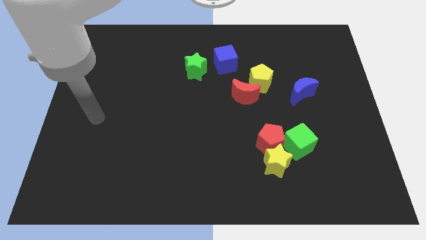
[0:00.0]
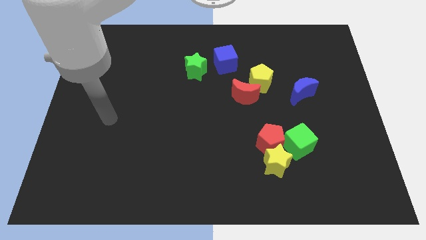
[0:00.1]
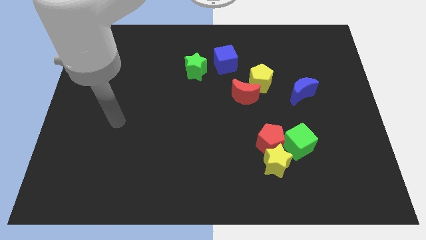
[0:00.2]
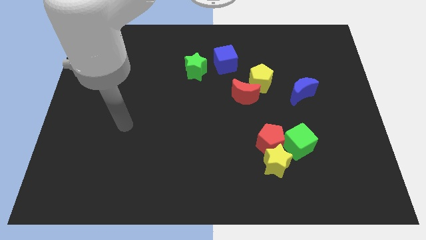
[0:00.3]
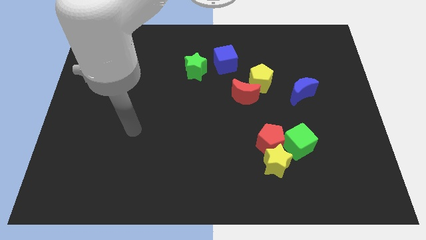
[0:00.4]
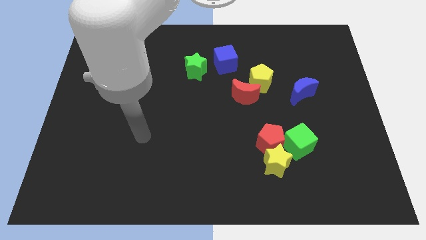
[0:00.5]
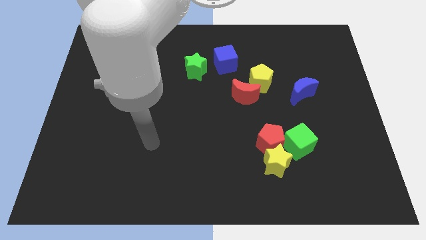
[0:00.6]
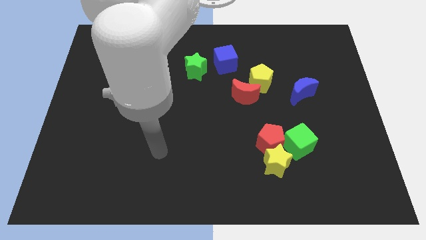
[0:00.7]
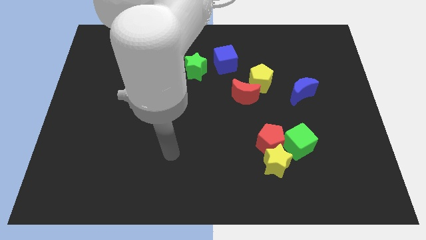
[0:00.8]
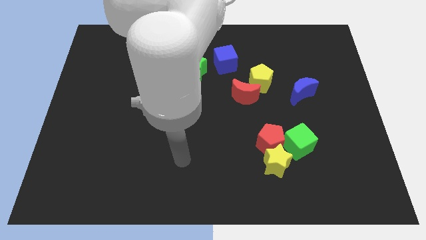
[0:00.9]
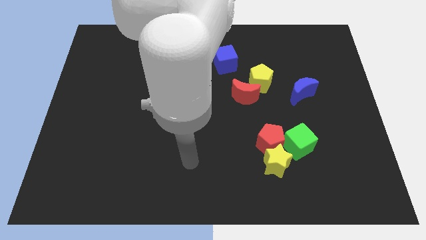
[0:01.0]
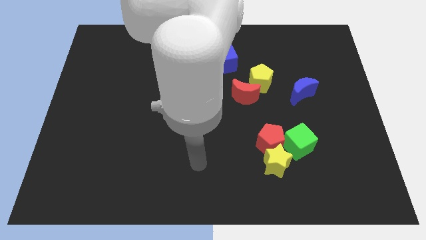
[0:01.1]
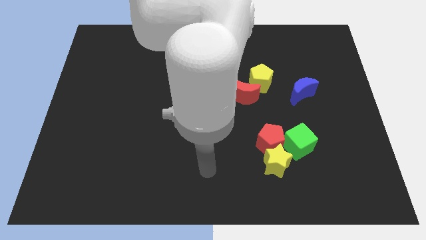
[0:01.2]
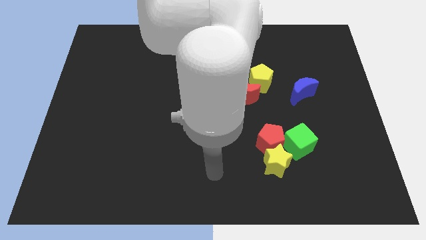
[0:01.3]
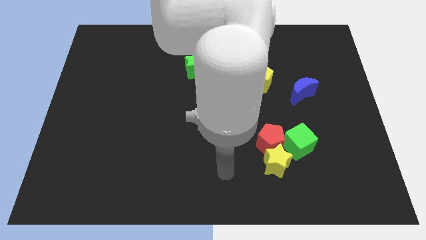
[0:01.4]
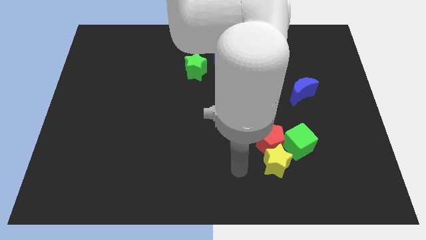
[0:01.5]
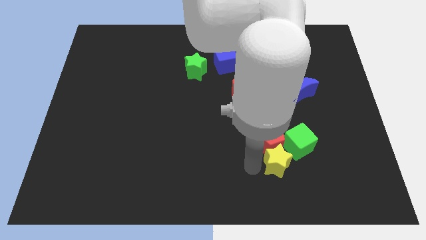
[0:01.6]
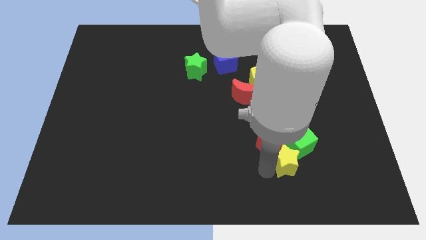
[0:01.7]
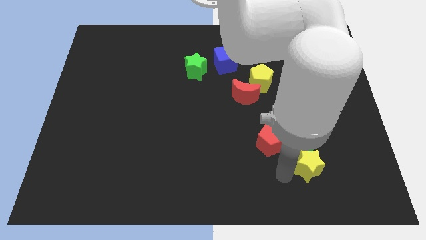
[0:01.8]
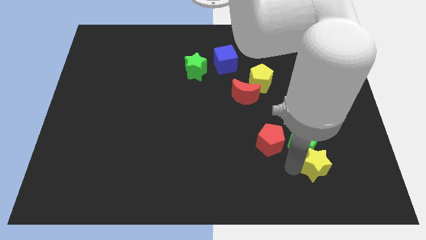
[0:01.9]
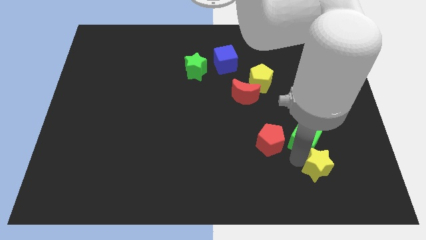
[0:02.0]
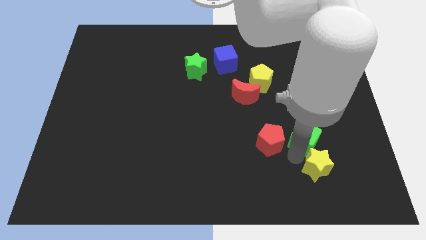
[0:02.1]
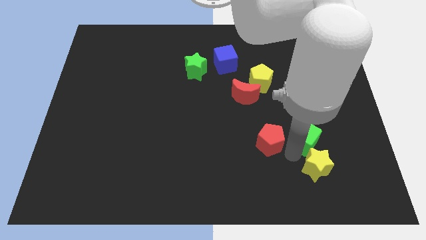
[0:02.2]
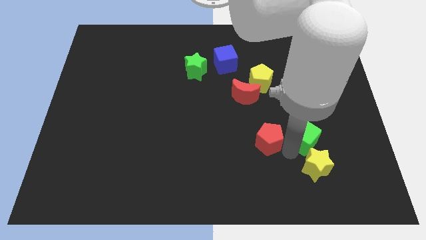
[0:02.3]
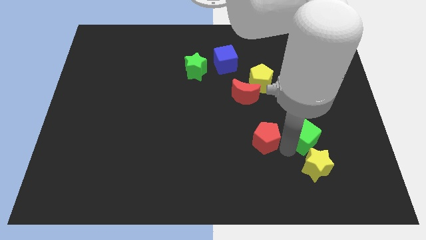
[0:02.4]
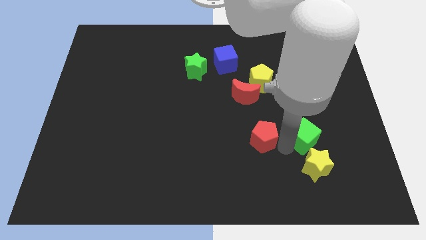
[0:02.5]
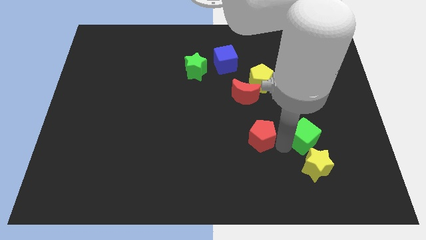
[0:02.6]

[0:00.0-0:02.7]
pull the red pentagon apart from the yellow star and green cube

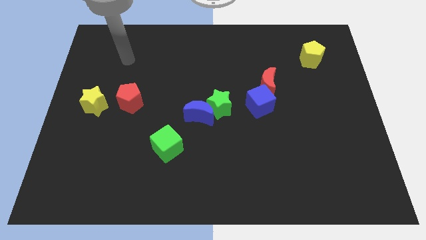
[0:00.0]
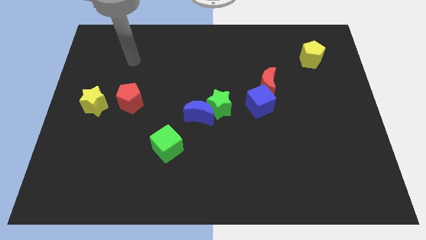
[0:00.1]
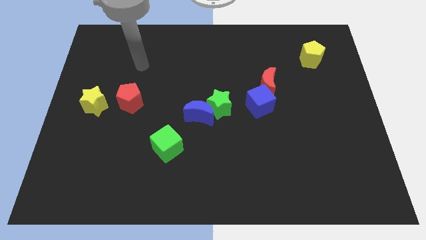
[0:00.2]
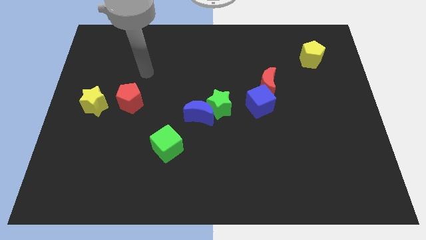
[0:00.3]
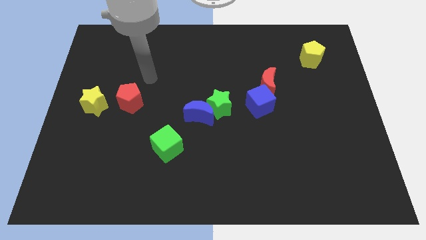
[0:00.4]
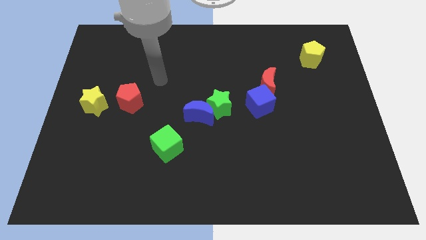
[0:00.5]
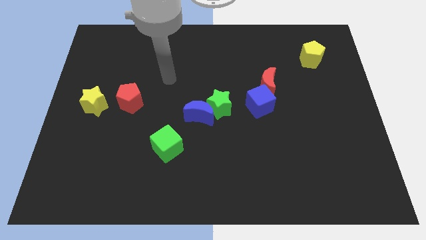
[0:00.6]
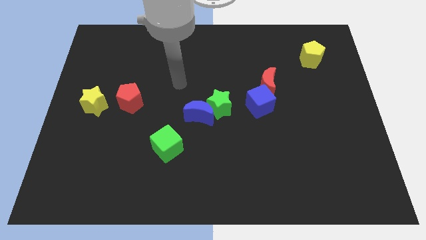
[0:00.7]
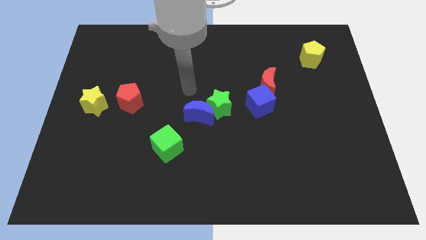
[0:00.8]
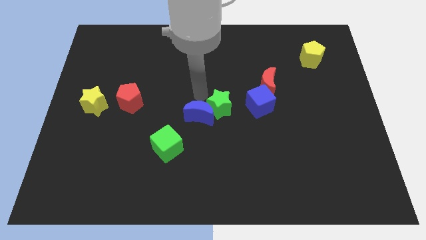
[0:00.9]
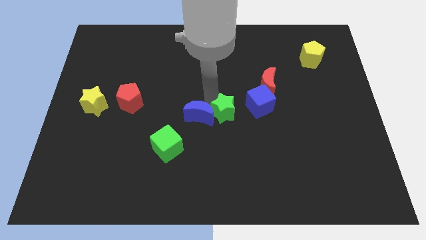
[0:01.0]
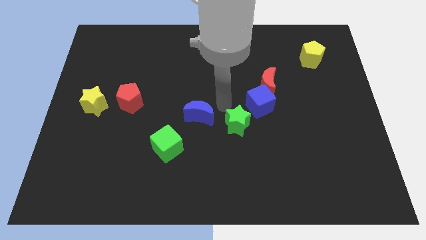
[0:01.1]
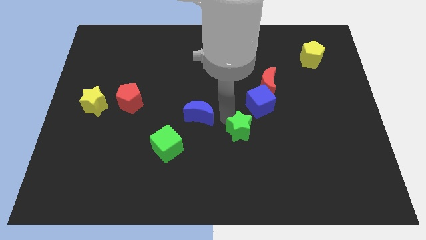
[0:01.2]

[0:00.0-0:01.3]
pull the blue moon apart from the green star

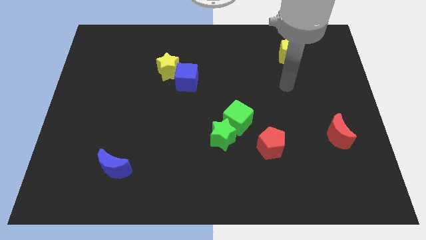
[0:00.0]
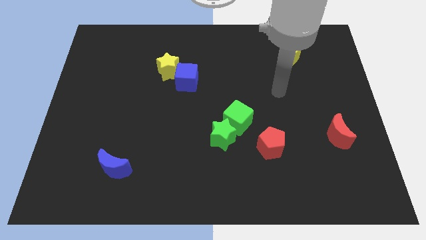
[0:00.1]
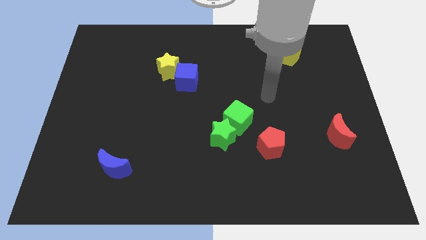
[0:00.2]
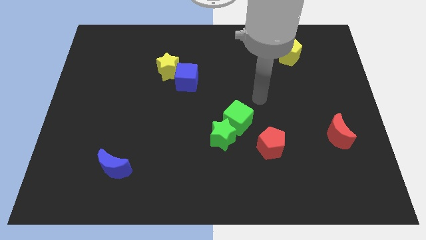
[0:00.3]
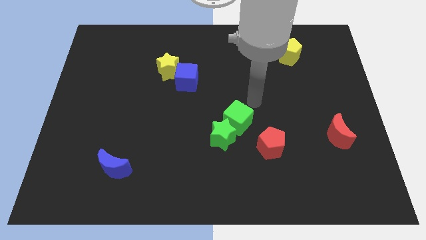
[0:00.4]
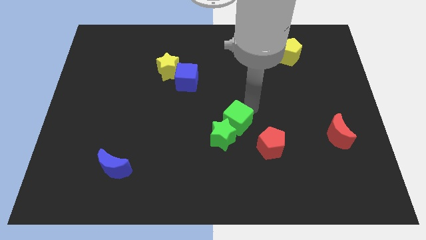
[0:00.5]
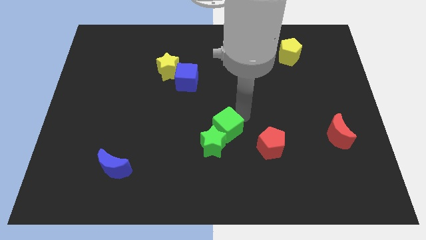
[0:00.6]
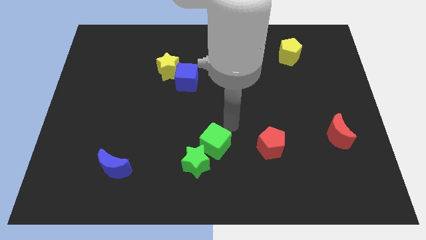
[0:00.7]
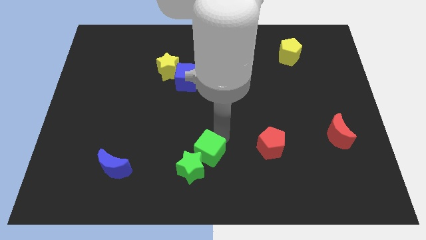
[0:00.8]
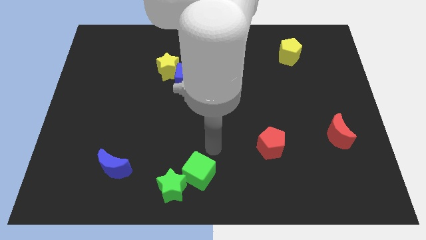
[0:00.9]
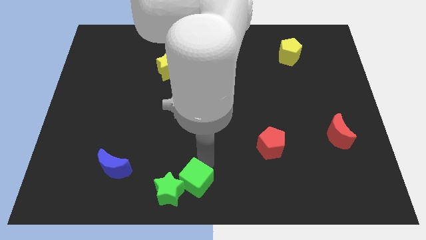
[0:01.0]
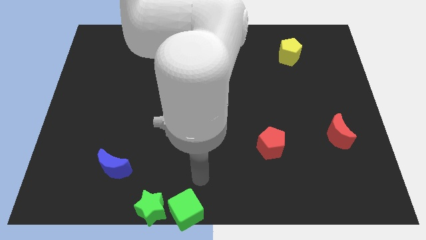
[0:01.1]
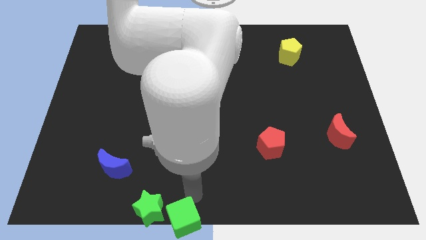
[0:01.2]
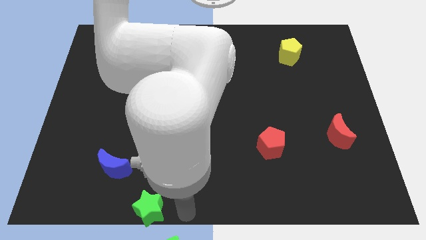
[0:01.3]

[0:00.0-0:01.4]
separate the green star from the green cube

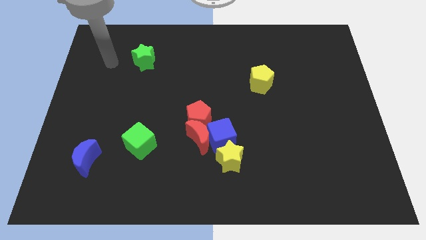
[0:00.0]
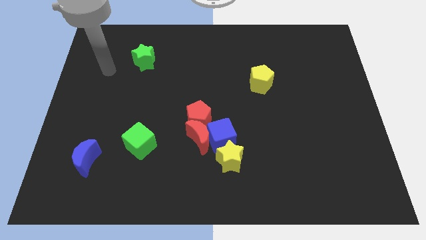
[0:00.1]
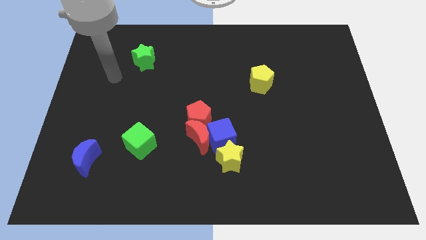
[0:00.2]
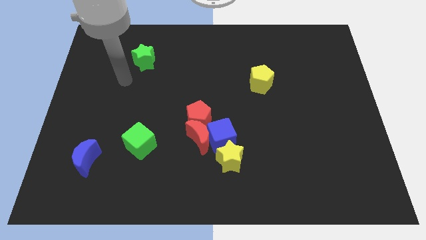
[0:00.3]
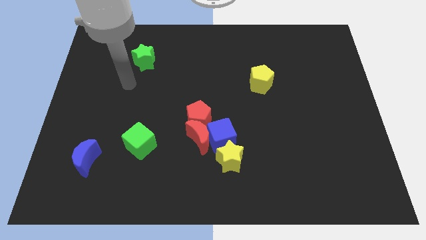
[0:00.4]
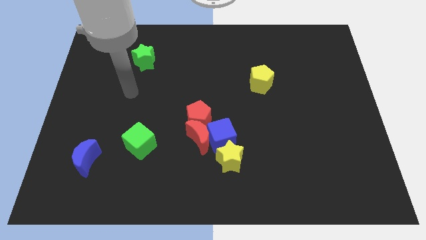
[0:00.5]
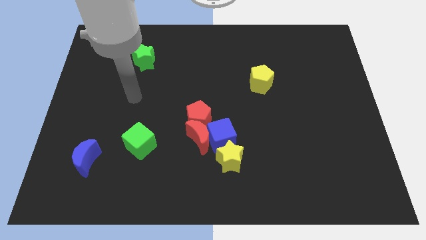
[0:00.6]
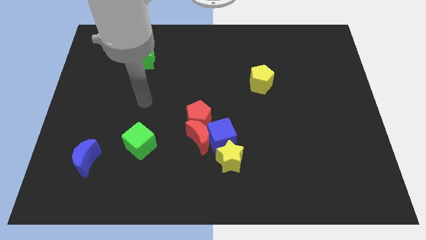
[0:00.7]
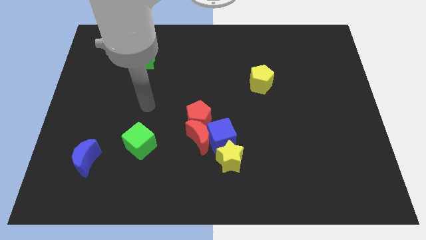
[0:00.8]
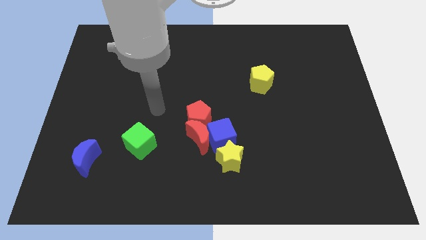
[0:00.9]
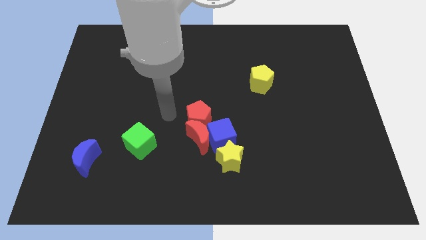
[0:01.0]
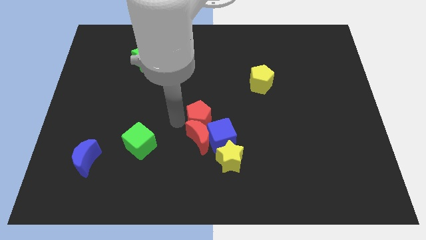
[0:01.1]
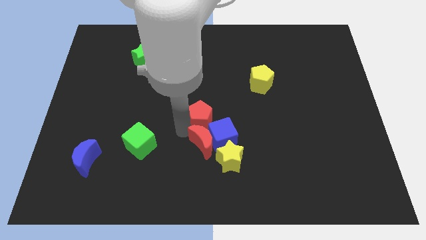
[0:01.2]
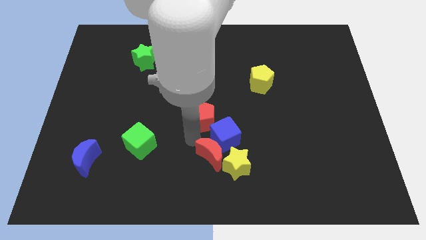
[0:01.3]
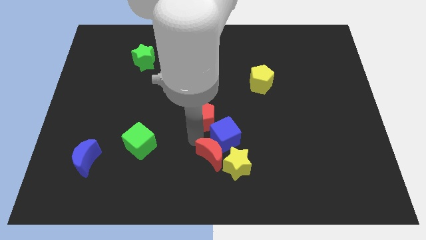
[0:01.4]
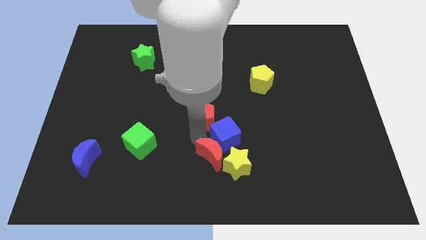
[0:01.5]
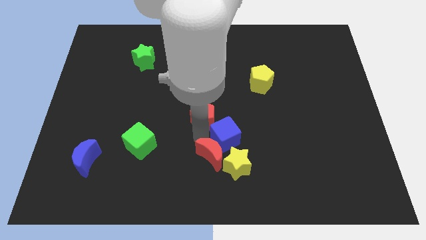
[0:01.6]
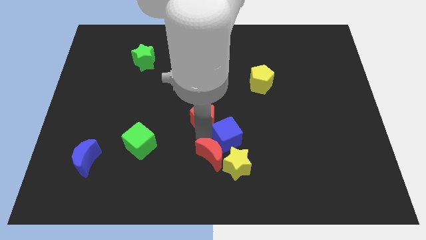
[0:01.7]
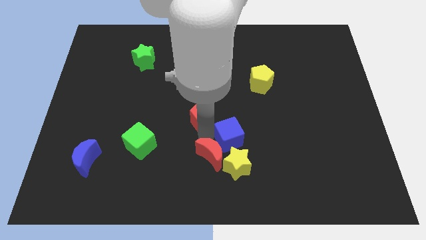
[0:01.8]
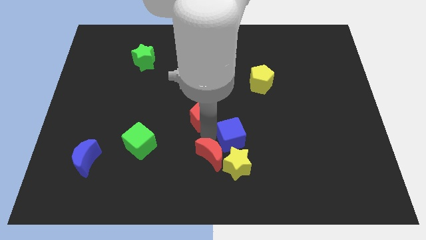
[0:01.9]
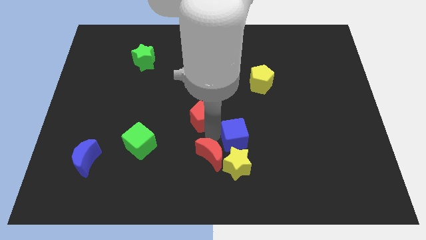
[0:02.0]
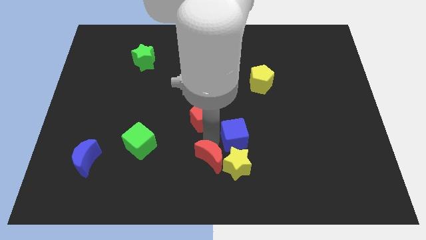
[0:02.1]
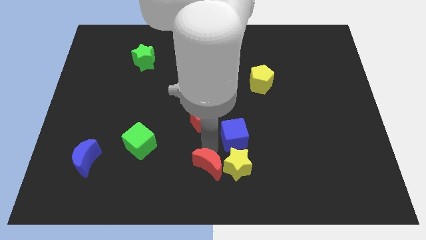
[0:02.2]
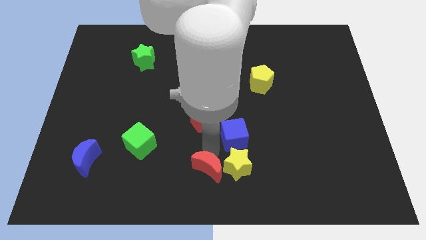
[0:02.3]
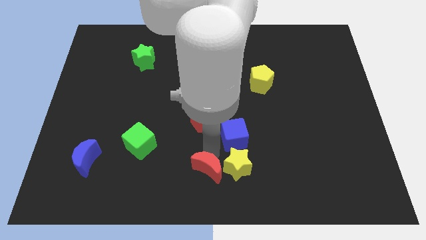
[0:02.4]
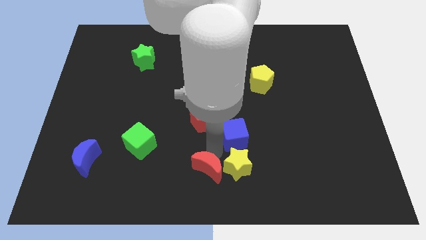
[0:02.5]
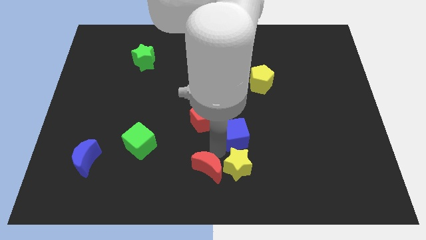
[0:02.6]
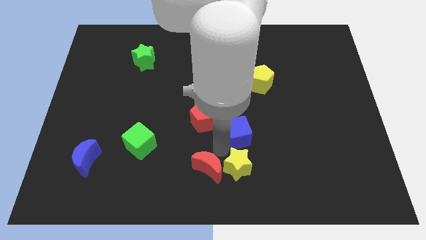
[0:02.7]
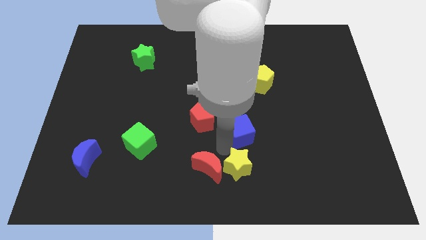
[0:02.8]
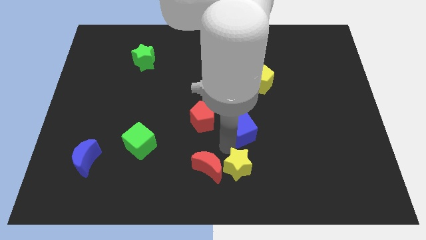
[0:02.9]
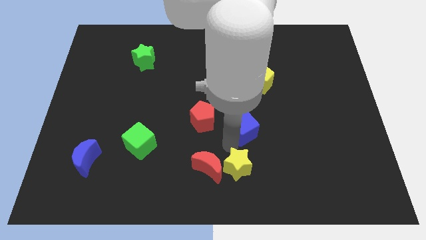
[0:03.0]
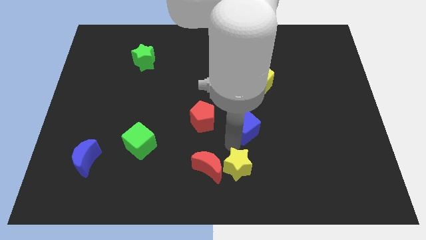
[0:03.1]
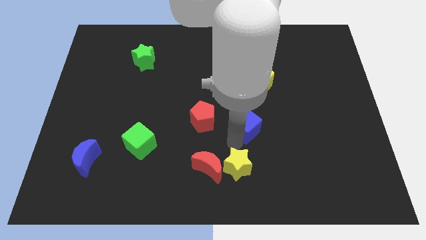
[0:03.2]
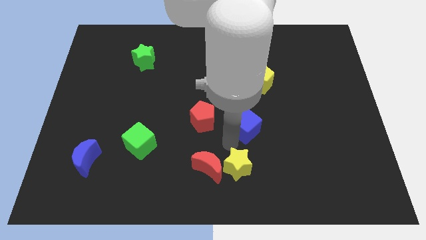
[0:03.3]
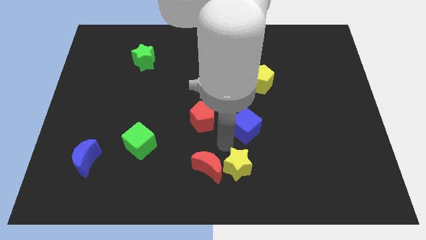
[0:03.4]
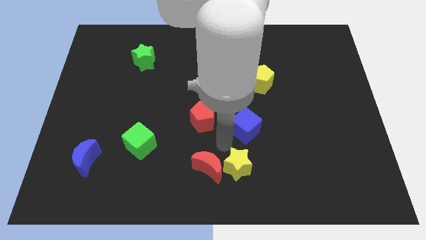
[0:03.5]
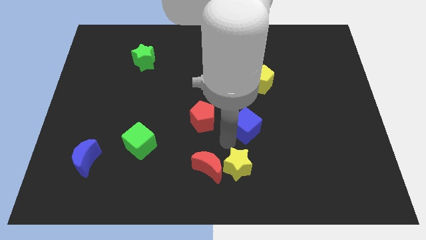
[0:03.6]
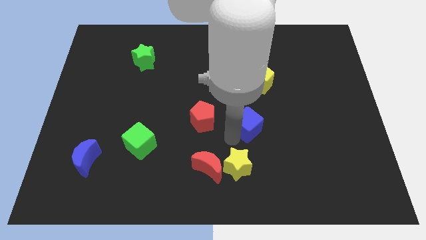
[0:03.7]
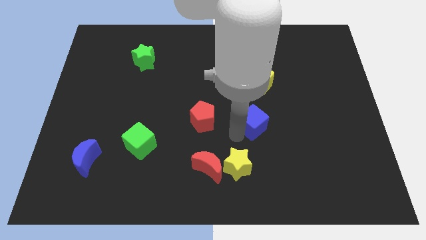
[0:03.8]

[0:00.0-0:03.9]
move the blue cube away from the red moon, yellow star, and red pentagon
